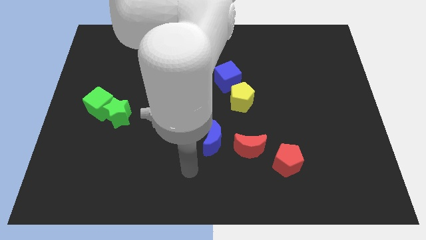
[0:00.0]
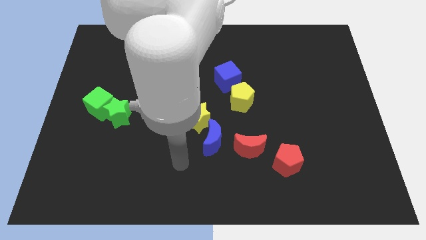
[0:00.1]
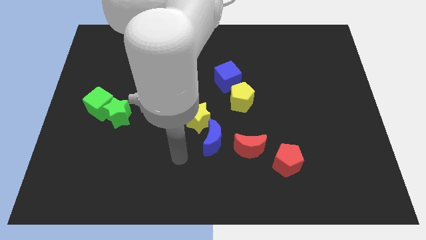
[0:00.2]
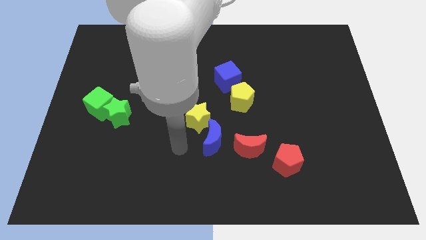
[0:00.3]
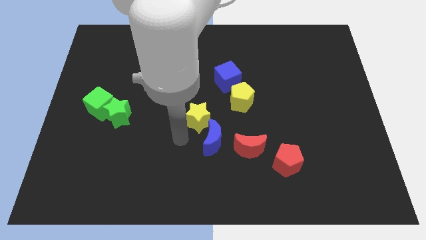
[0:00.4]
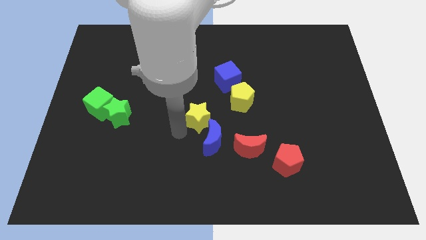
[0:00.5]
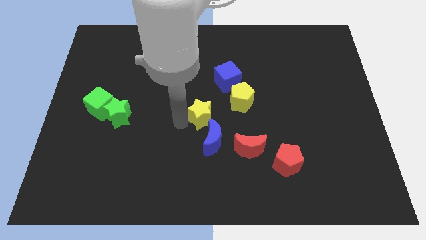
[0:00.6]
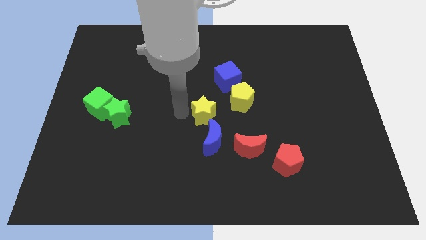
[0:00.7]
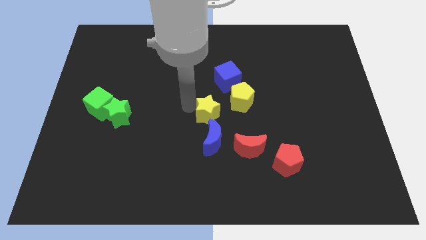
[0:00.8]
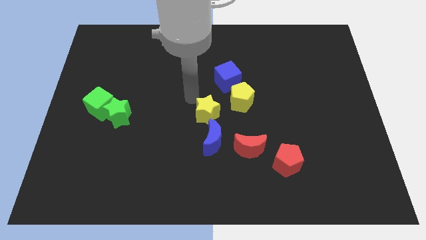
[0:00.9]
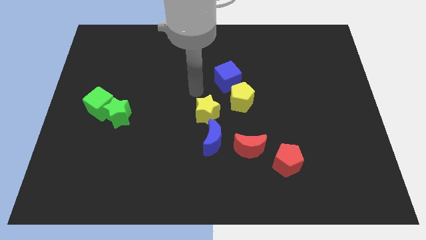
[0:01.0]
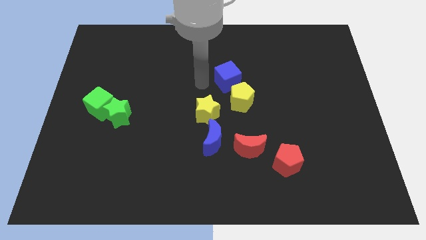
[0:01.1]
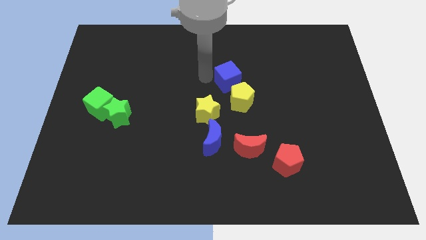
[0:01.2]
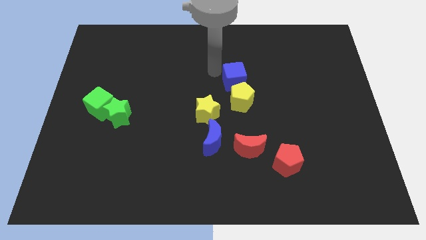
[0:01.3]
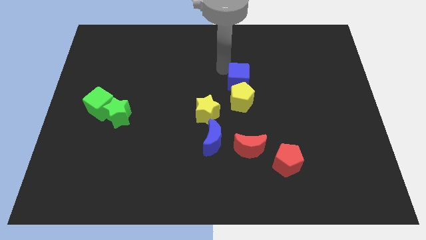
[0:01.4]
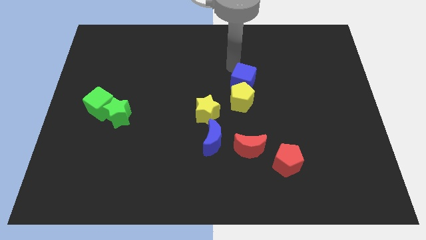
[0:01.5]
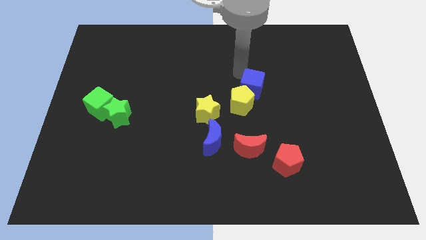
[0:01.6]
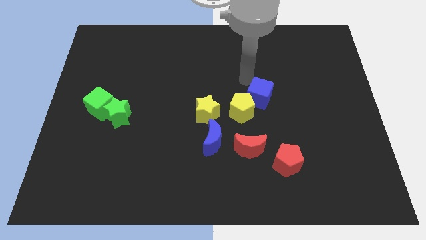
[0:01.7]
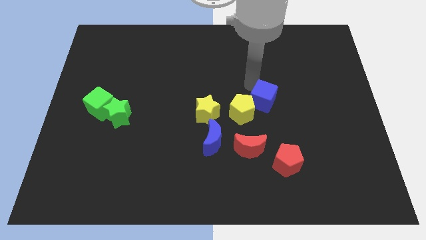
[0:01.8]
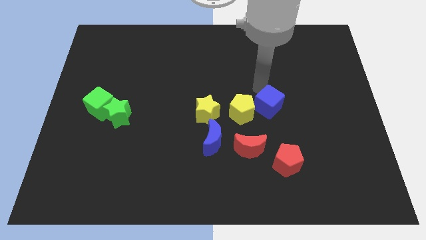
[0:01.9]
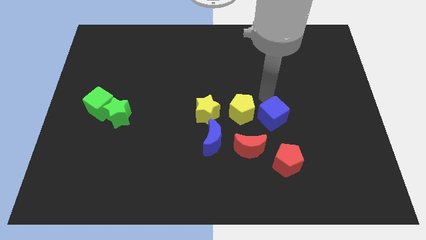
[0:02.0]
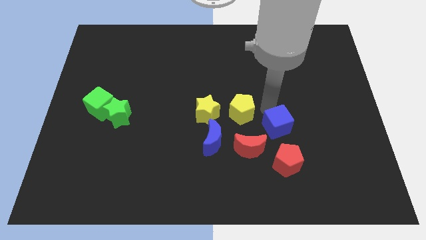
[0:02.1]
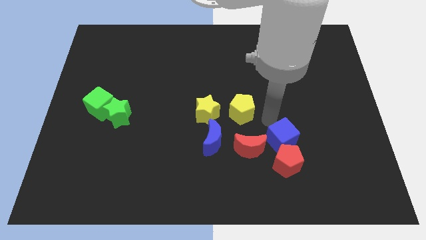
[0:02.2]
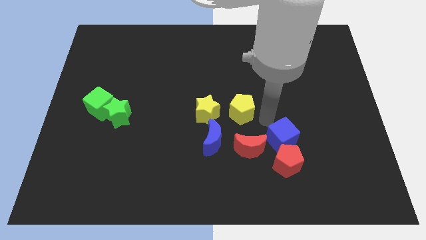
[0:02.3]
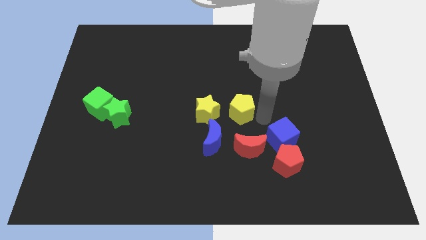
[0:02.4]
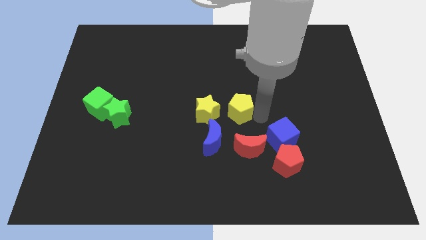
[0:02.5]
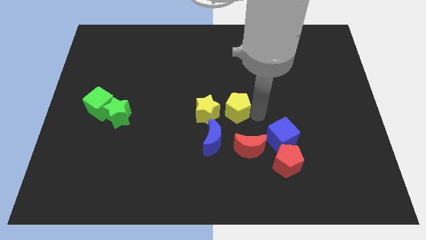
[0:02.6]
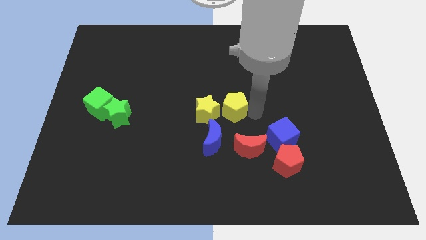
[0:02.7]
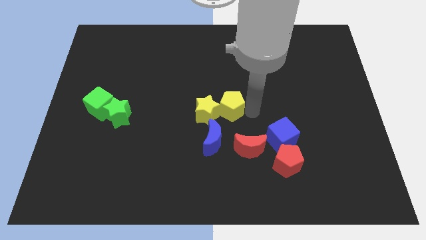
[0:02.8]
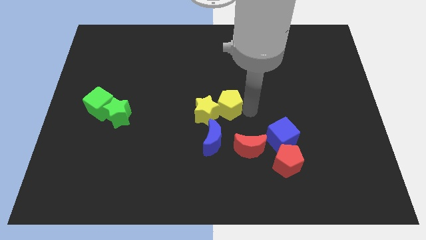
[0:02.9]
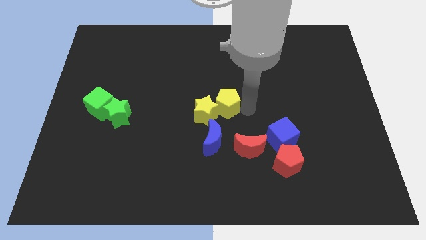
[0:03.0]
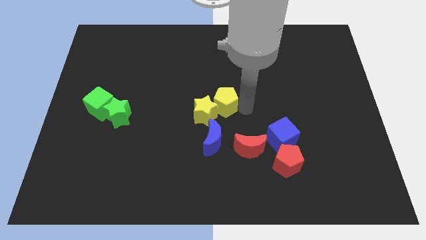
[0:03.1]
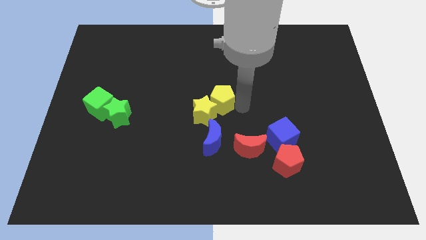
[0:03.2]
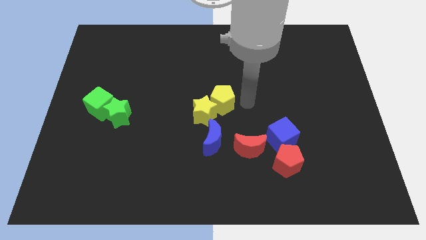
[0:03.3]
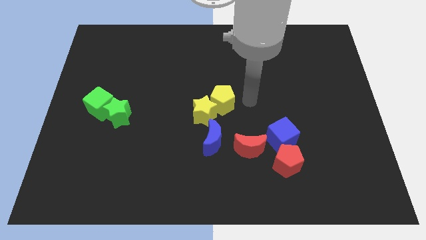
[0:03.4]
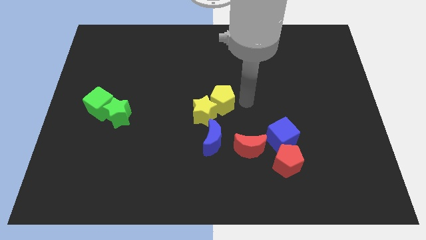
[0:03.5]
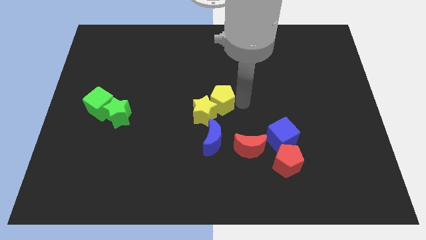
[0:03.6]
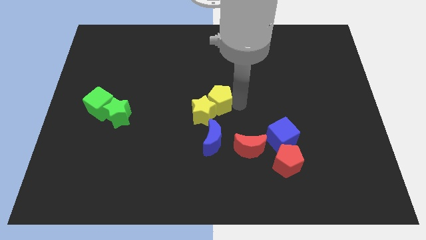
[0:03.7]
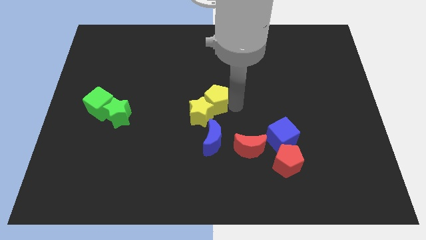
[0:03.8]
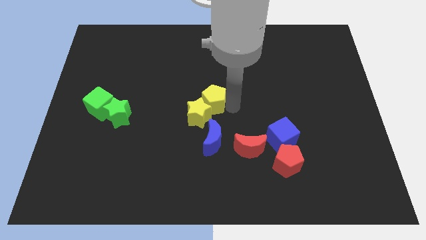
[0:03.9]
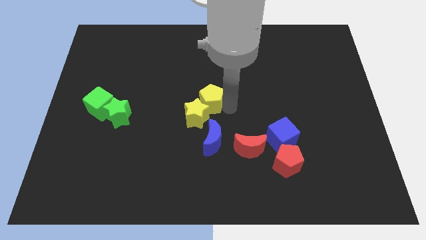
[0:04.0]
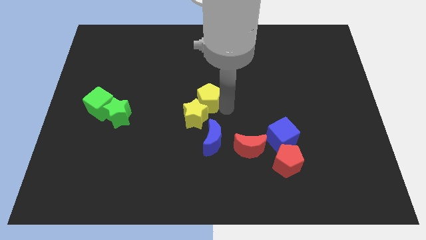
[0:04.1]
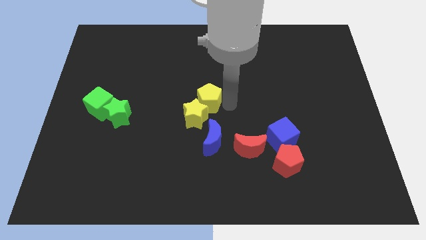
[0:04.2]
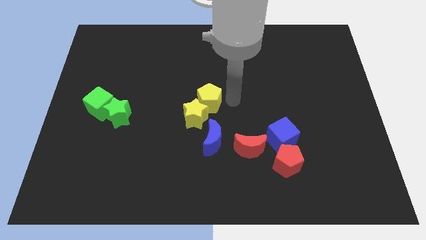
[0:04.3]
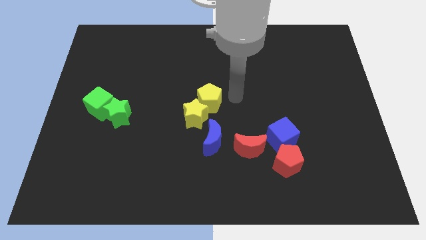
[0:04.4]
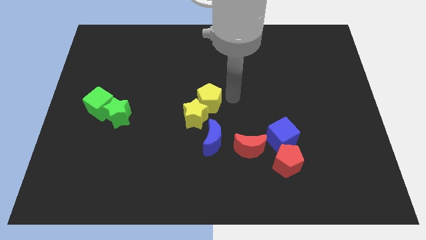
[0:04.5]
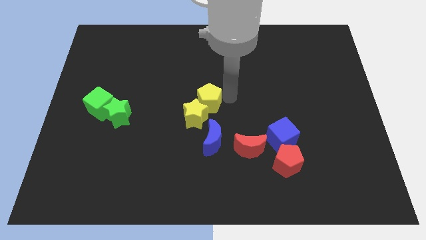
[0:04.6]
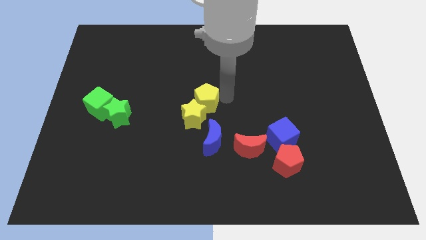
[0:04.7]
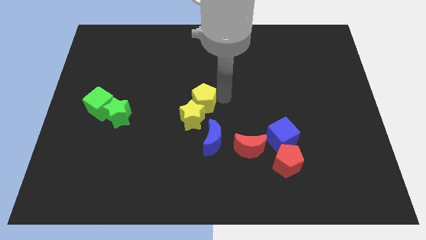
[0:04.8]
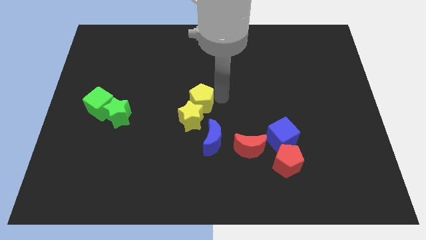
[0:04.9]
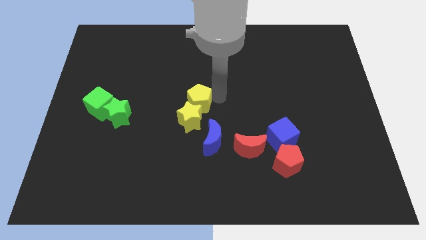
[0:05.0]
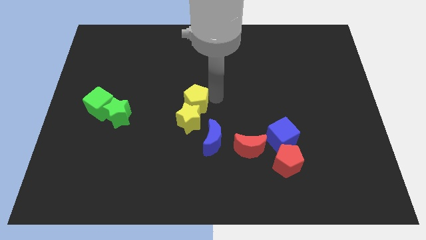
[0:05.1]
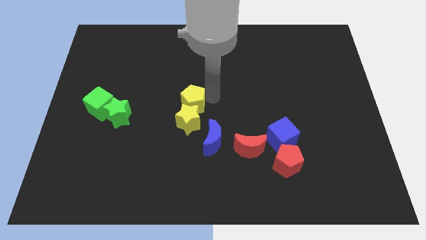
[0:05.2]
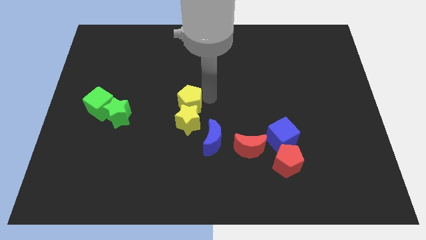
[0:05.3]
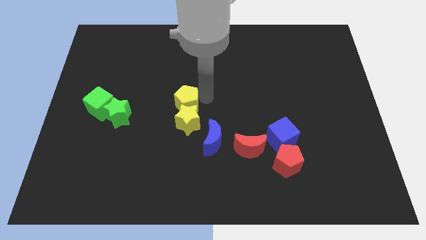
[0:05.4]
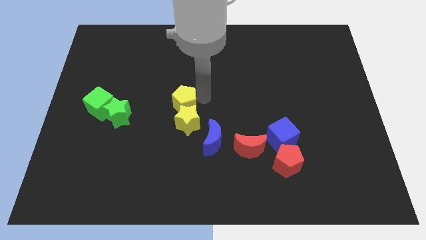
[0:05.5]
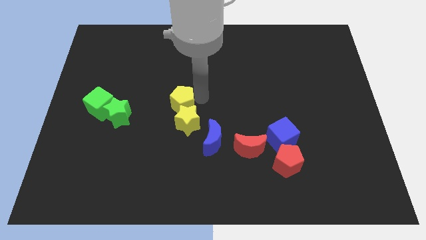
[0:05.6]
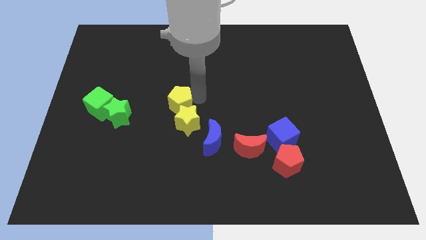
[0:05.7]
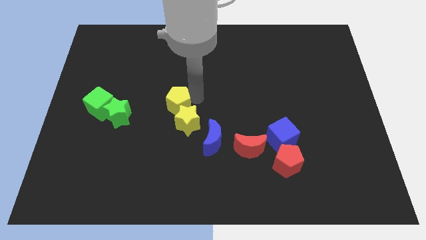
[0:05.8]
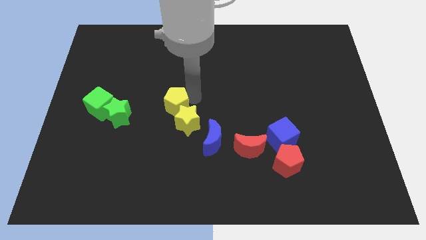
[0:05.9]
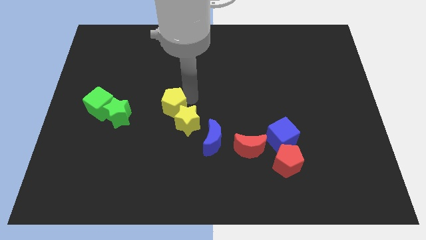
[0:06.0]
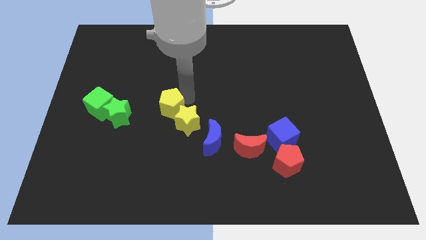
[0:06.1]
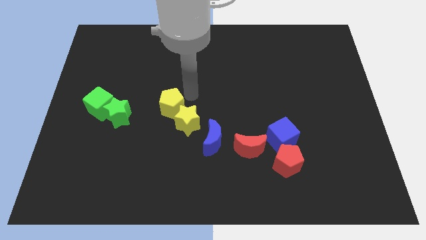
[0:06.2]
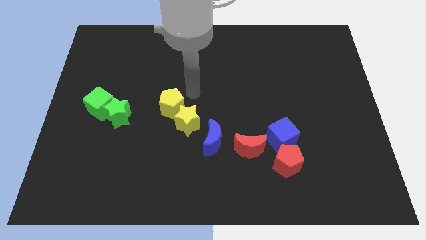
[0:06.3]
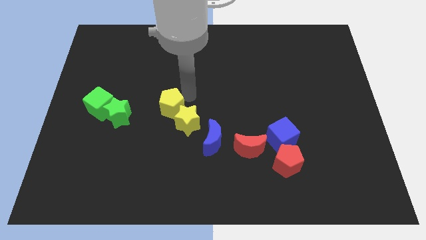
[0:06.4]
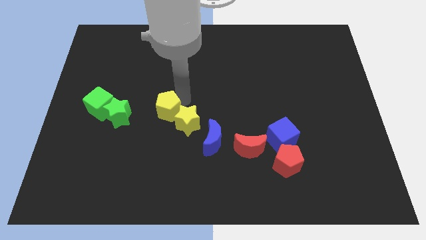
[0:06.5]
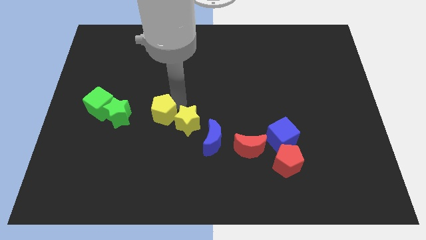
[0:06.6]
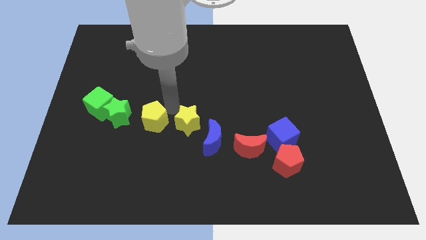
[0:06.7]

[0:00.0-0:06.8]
move the yellow pentagon to the bottom right side of the green star
